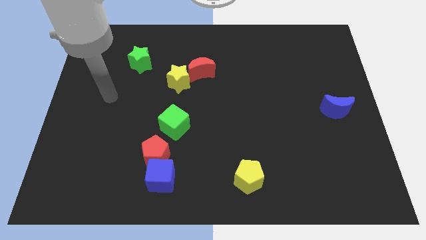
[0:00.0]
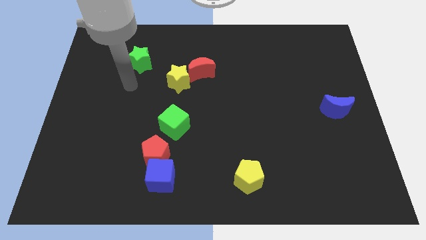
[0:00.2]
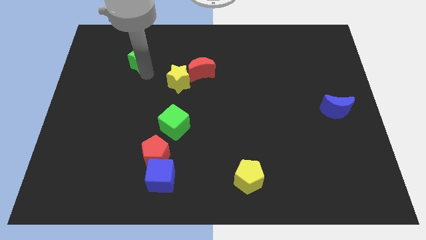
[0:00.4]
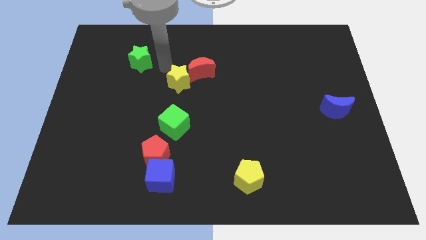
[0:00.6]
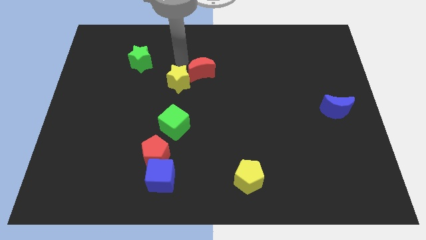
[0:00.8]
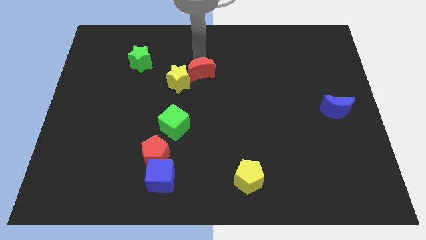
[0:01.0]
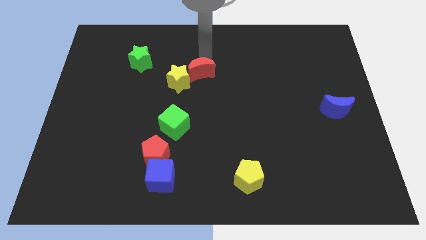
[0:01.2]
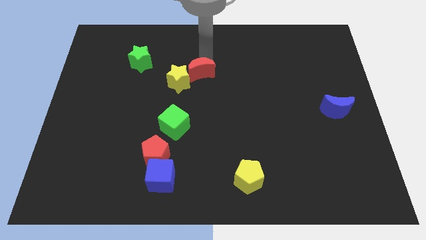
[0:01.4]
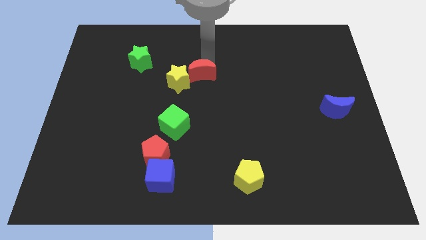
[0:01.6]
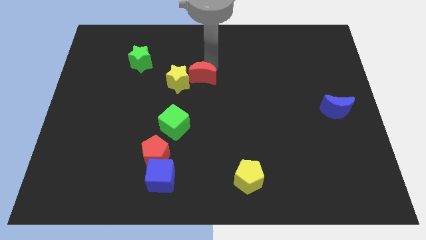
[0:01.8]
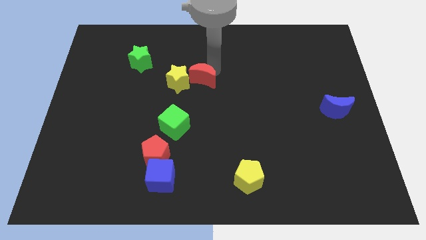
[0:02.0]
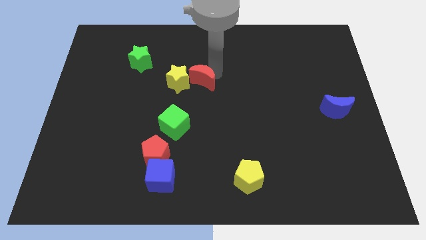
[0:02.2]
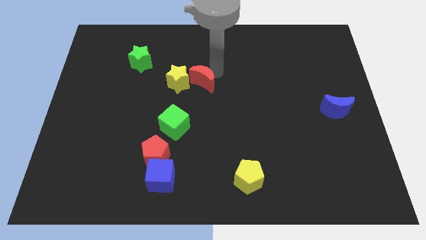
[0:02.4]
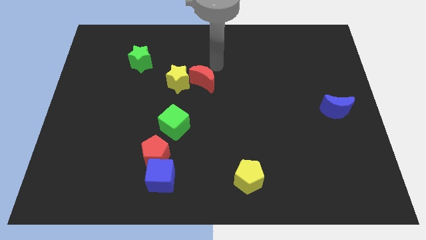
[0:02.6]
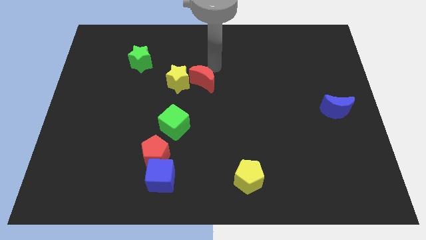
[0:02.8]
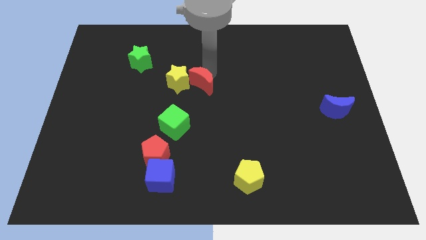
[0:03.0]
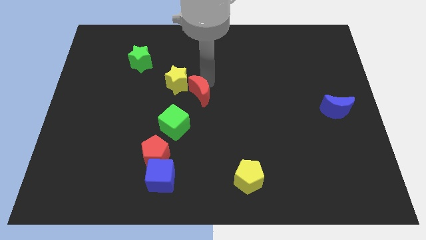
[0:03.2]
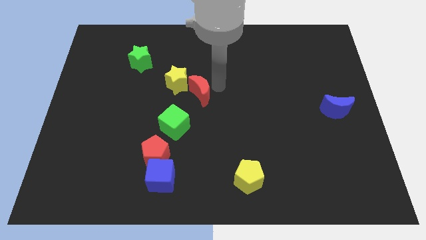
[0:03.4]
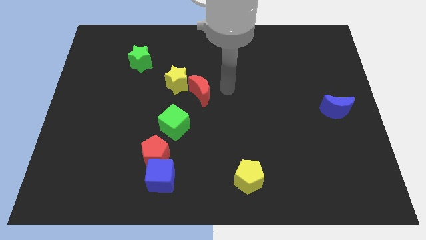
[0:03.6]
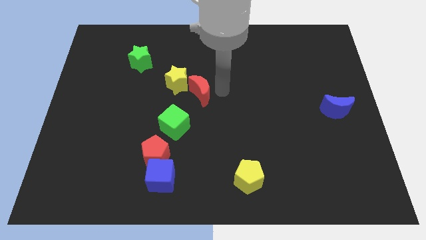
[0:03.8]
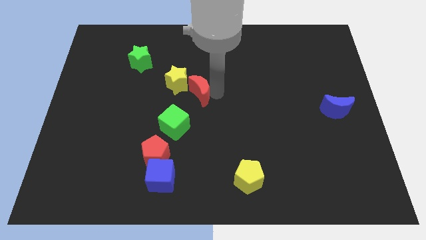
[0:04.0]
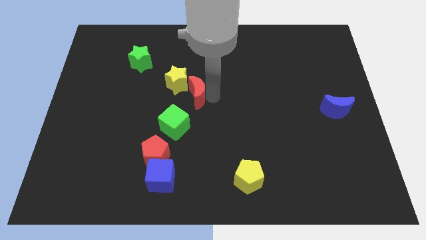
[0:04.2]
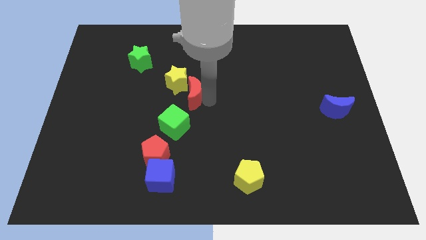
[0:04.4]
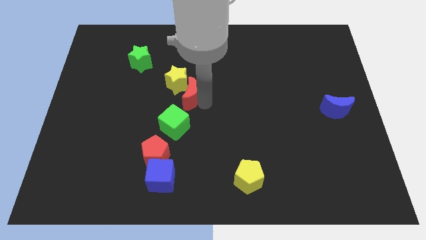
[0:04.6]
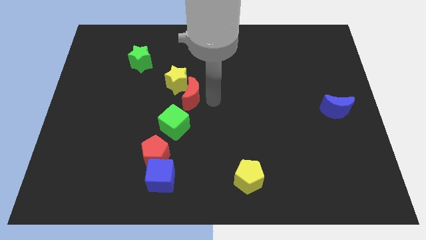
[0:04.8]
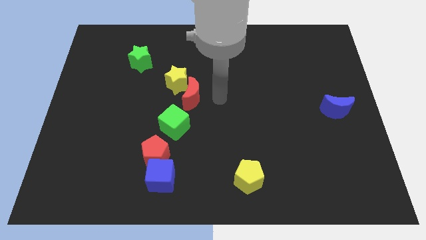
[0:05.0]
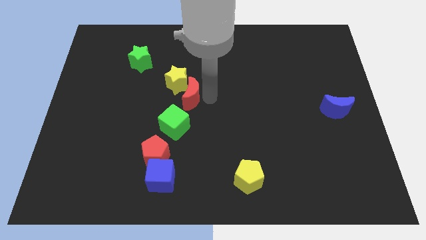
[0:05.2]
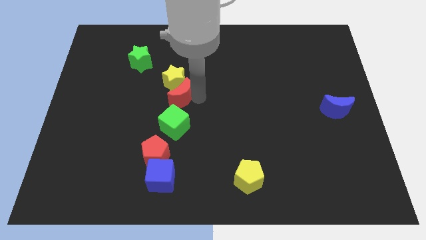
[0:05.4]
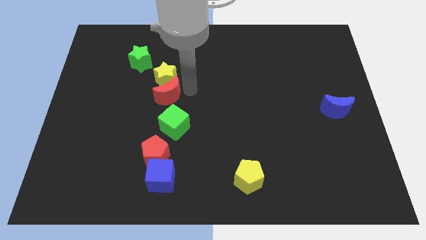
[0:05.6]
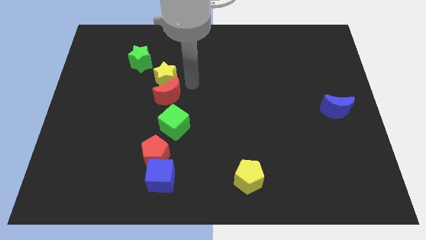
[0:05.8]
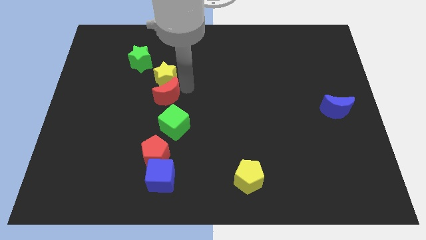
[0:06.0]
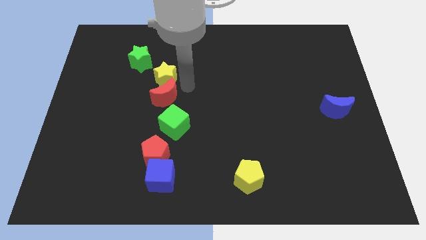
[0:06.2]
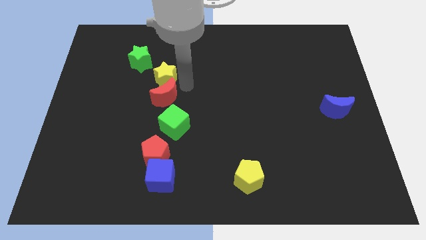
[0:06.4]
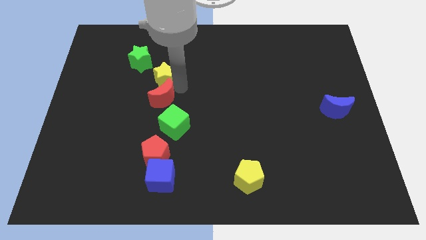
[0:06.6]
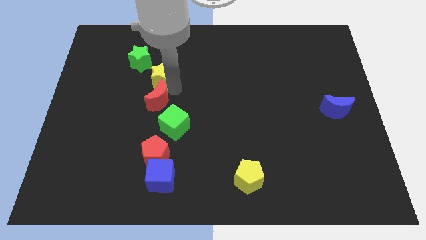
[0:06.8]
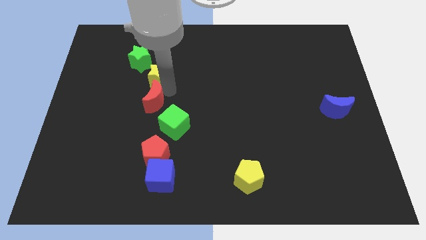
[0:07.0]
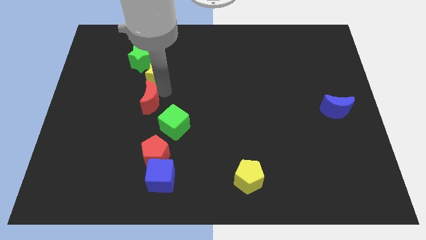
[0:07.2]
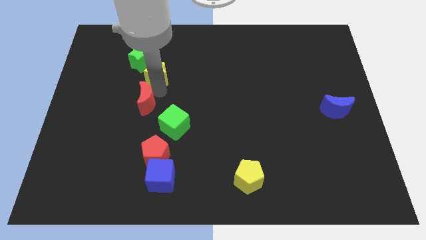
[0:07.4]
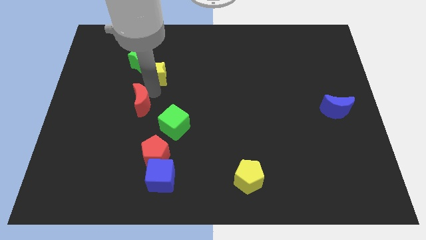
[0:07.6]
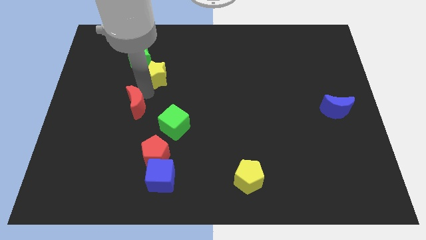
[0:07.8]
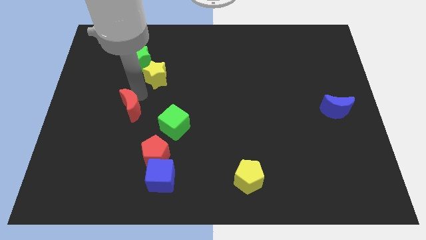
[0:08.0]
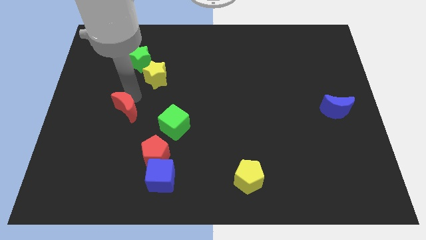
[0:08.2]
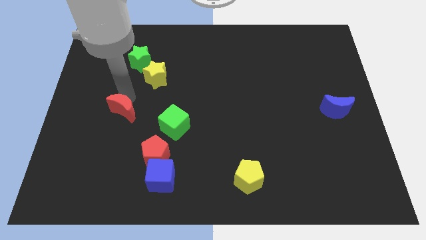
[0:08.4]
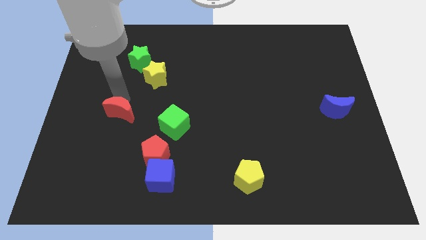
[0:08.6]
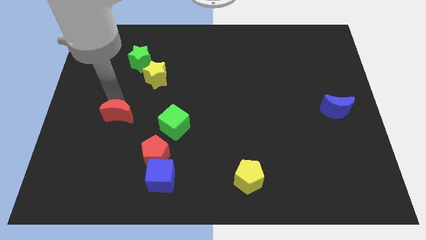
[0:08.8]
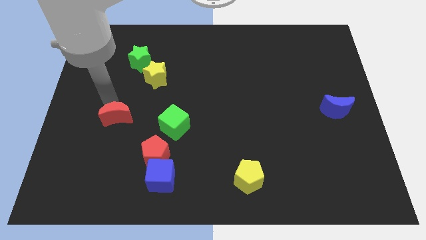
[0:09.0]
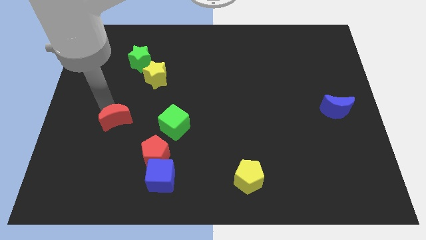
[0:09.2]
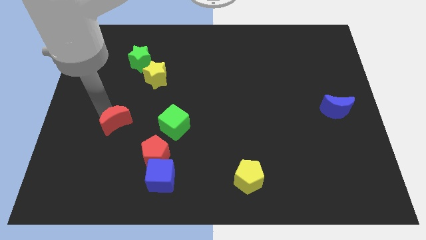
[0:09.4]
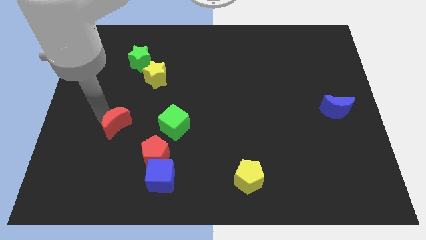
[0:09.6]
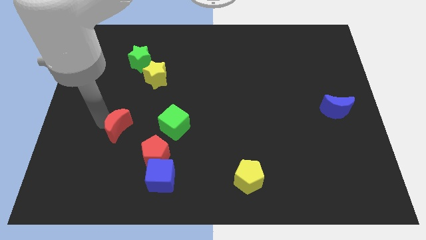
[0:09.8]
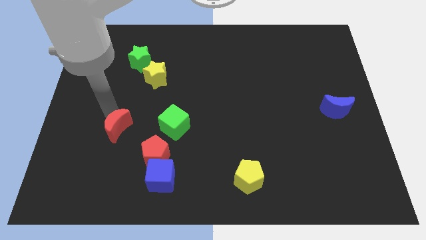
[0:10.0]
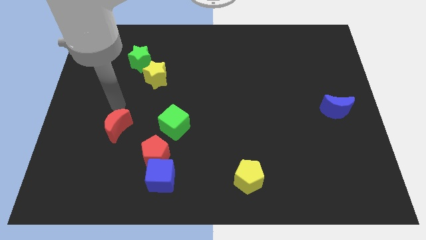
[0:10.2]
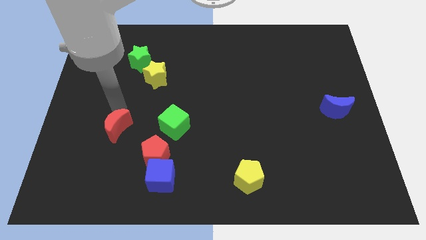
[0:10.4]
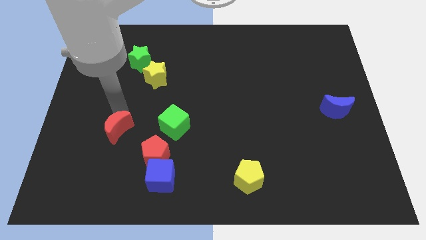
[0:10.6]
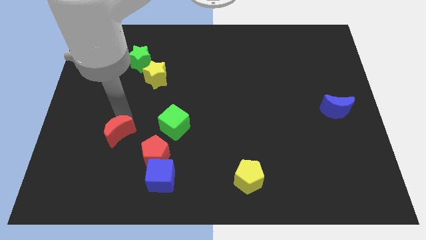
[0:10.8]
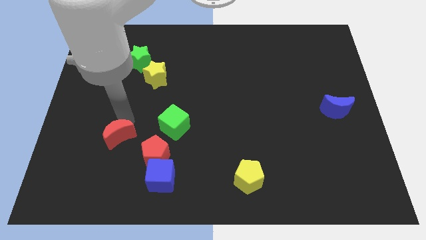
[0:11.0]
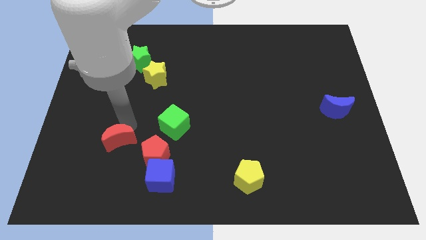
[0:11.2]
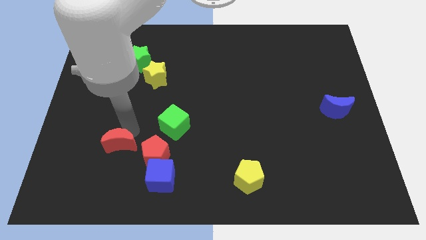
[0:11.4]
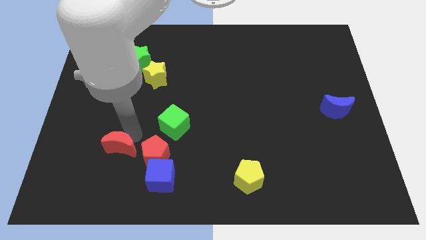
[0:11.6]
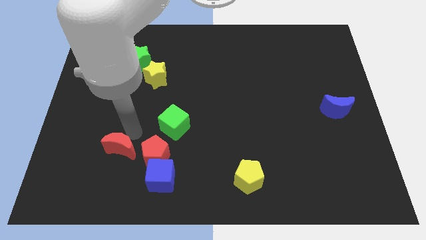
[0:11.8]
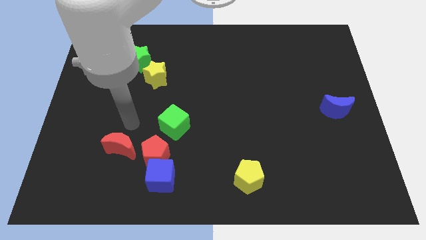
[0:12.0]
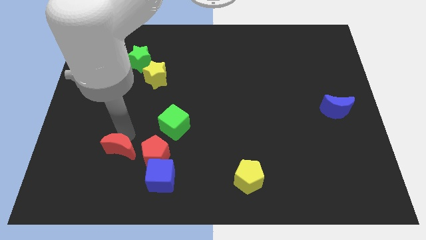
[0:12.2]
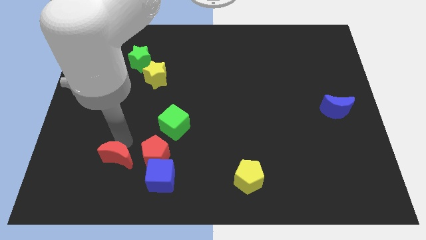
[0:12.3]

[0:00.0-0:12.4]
put the red moon left of the blue cube

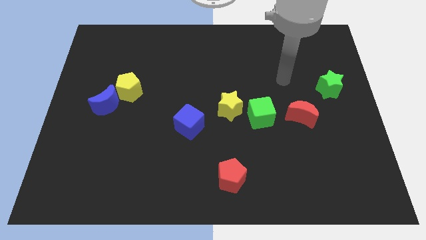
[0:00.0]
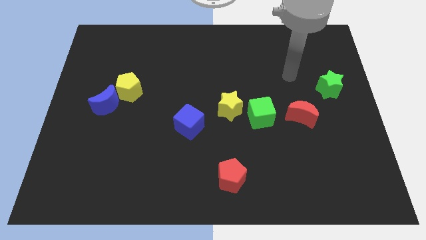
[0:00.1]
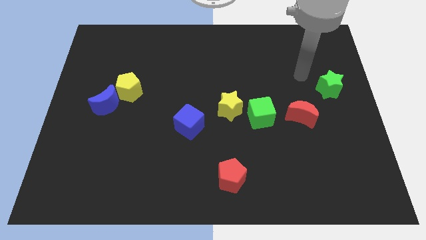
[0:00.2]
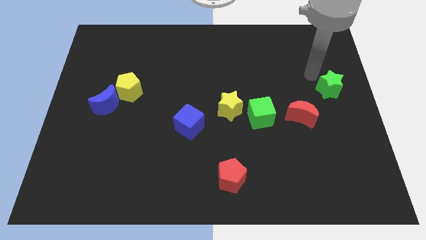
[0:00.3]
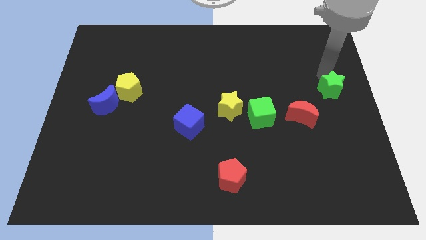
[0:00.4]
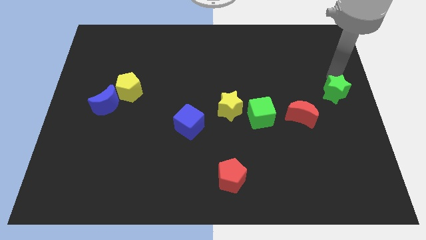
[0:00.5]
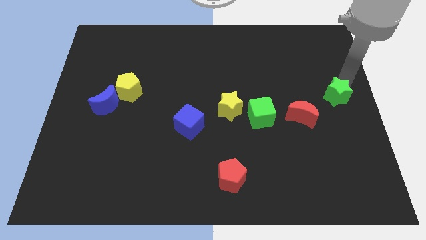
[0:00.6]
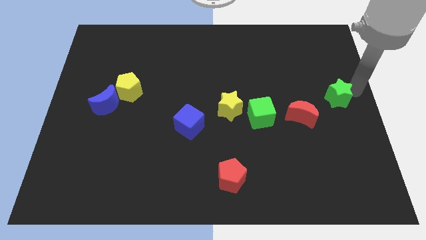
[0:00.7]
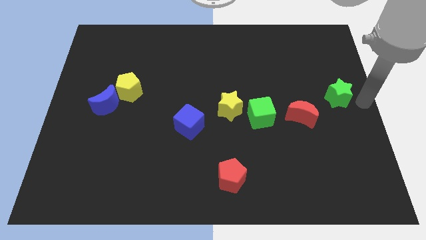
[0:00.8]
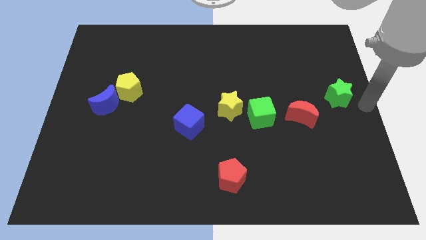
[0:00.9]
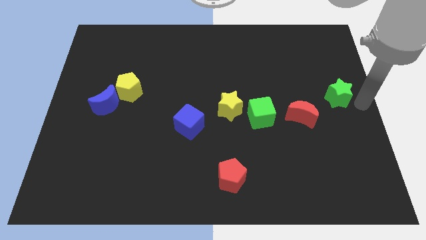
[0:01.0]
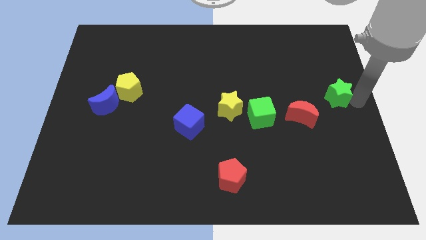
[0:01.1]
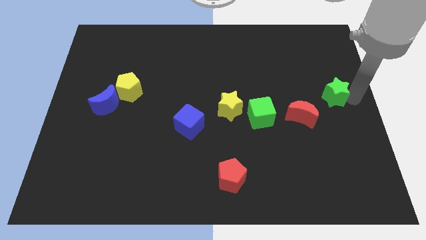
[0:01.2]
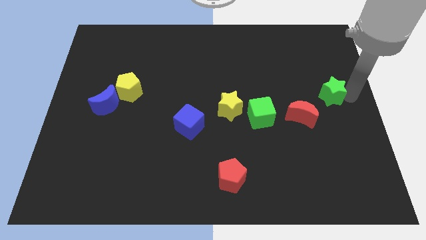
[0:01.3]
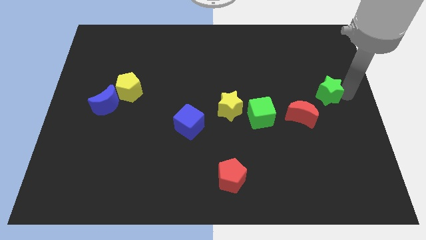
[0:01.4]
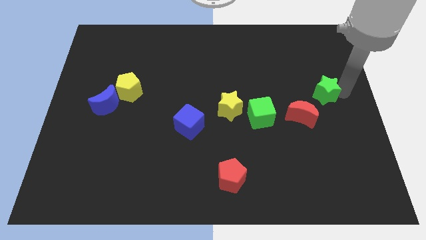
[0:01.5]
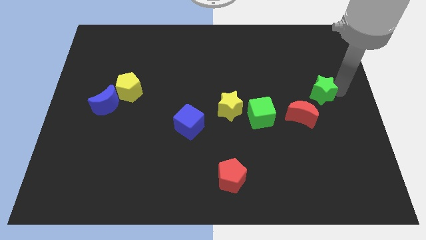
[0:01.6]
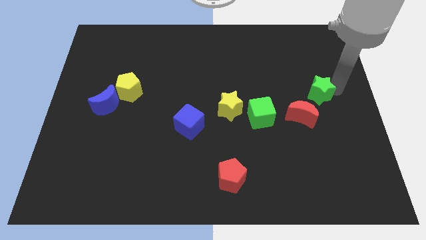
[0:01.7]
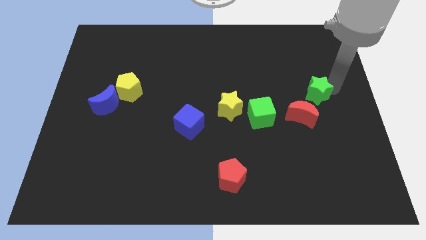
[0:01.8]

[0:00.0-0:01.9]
put the green star above the red moon
